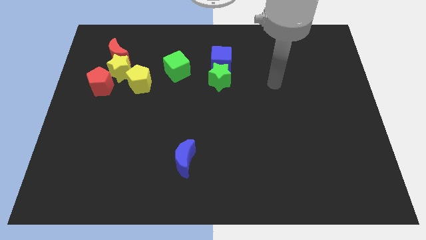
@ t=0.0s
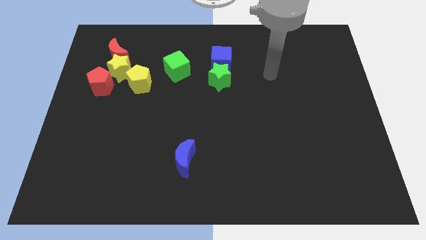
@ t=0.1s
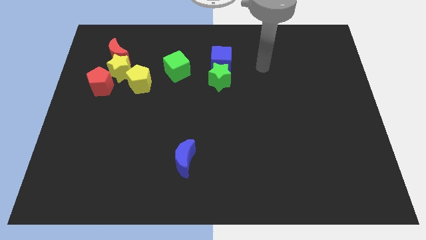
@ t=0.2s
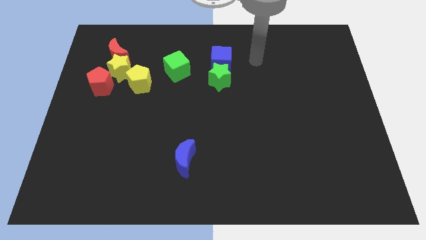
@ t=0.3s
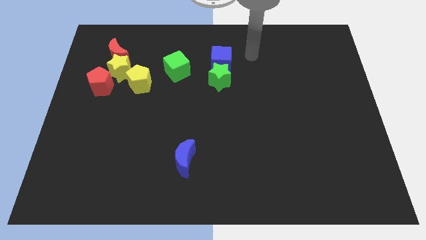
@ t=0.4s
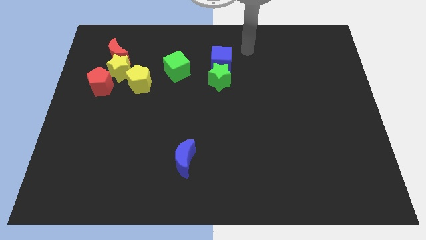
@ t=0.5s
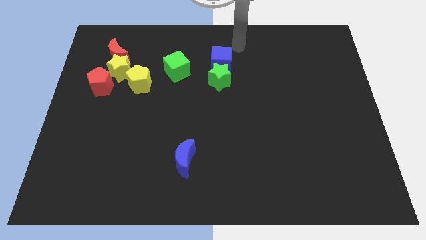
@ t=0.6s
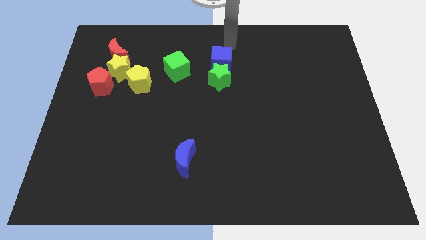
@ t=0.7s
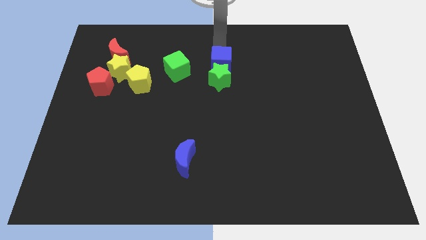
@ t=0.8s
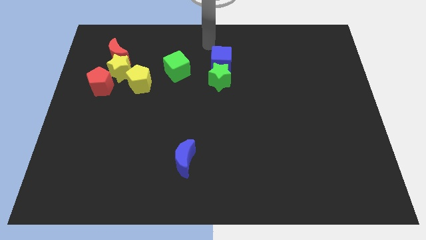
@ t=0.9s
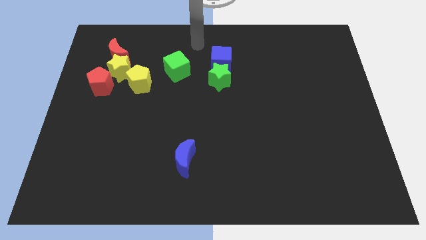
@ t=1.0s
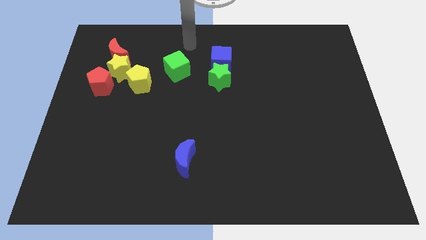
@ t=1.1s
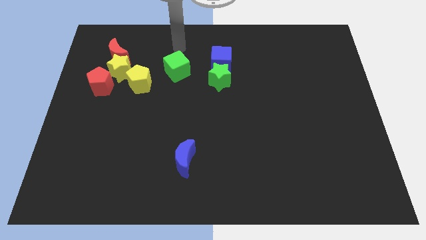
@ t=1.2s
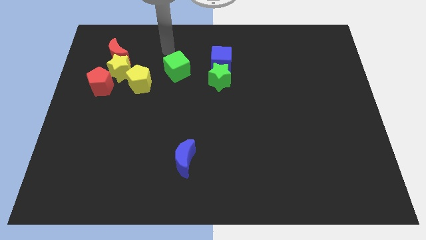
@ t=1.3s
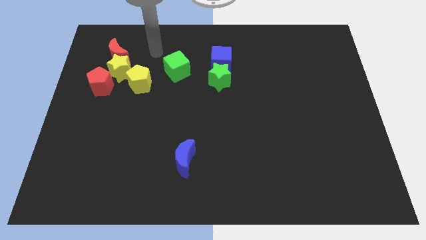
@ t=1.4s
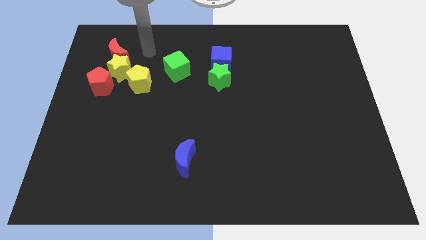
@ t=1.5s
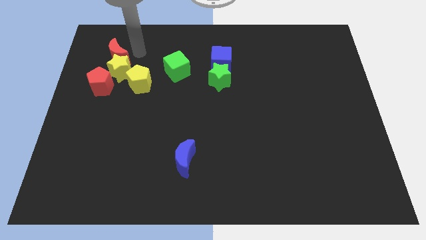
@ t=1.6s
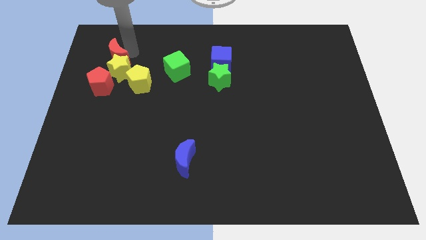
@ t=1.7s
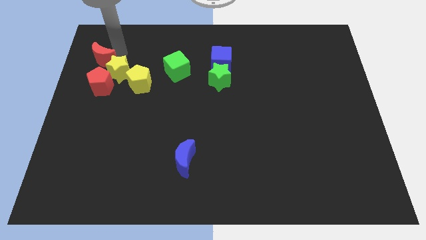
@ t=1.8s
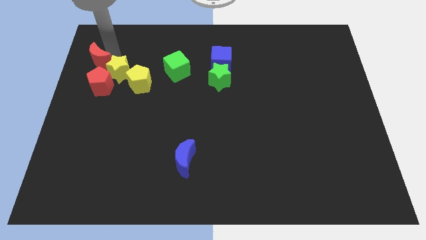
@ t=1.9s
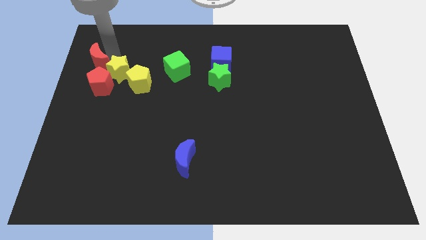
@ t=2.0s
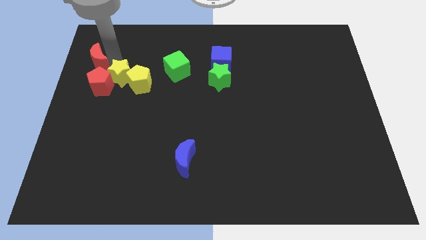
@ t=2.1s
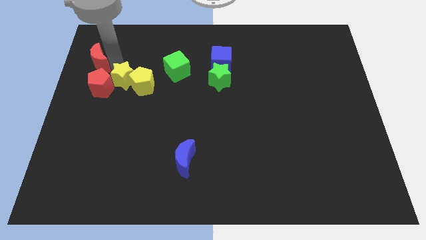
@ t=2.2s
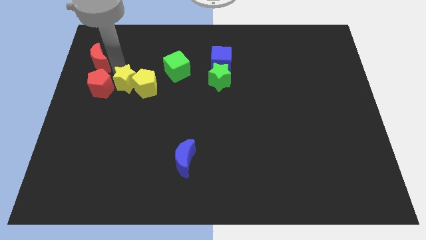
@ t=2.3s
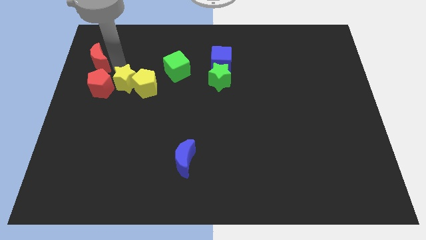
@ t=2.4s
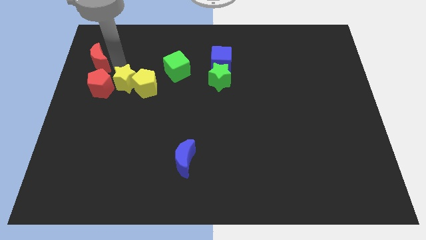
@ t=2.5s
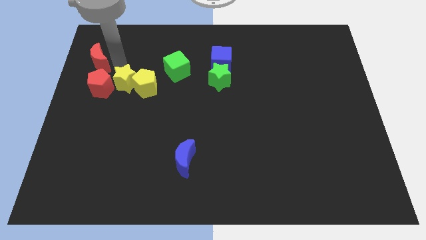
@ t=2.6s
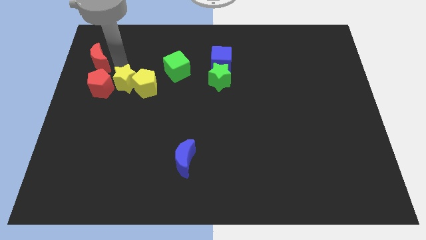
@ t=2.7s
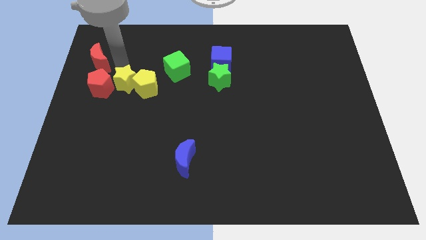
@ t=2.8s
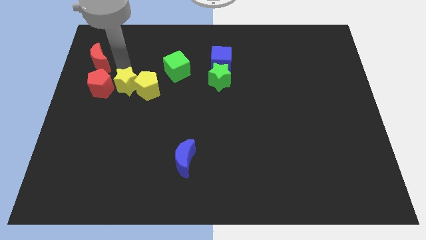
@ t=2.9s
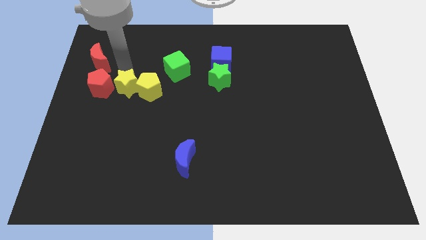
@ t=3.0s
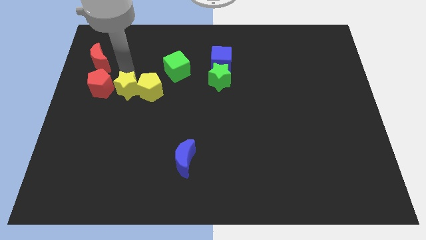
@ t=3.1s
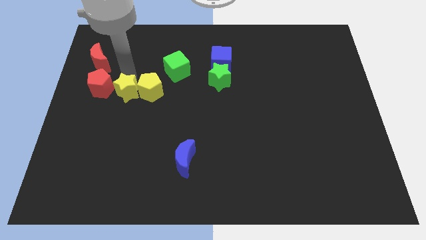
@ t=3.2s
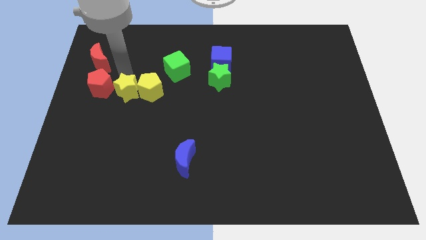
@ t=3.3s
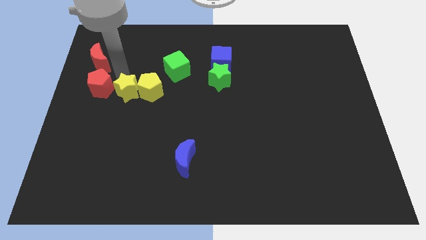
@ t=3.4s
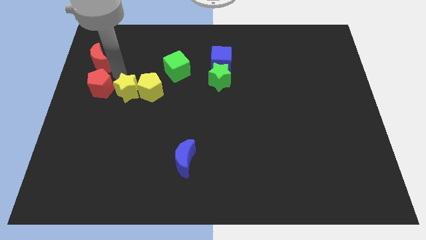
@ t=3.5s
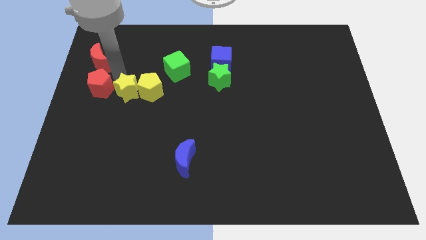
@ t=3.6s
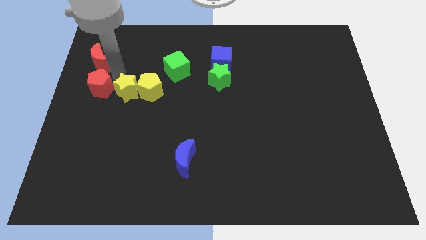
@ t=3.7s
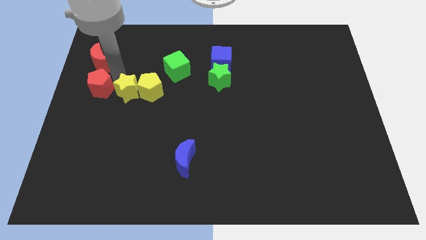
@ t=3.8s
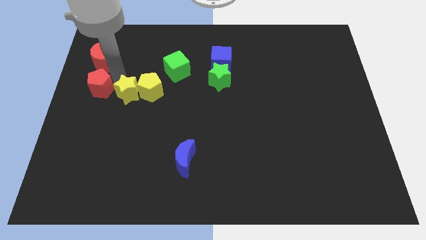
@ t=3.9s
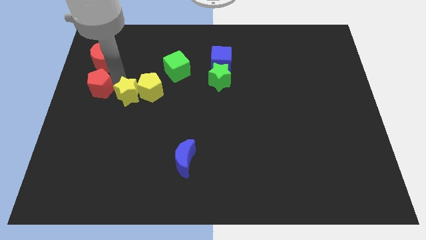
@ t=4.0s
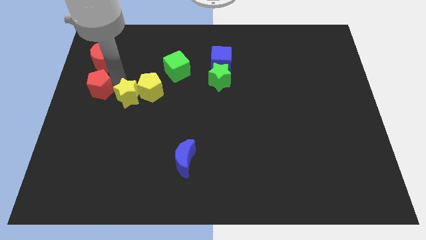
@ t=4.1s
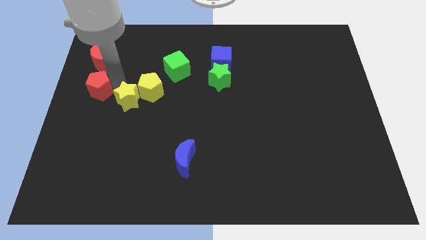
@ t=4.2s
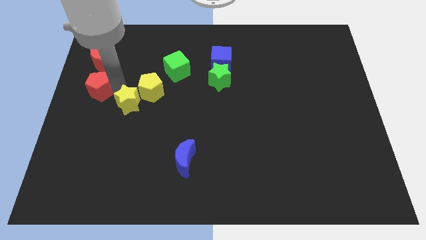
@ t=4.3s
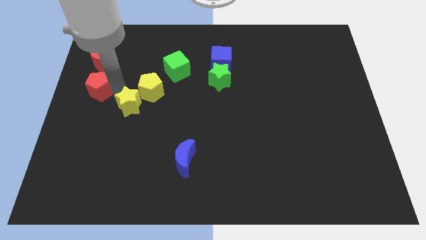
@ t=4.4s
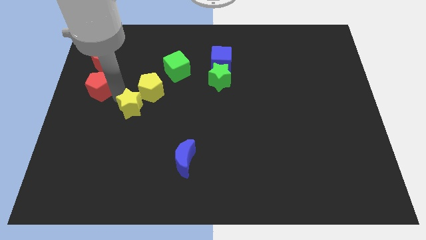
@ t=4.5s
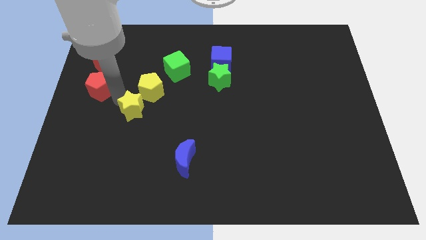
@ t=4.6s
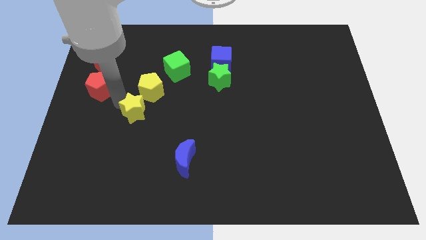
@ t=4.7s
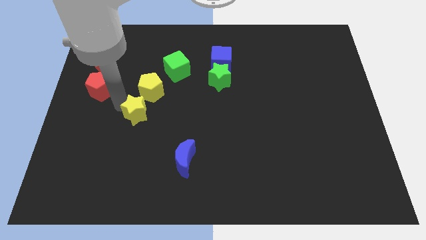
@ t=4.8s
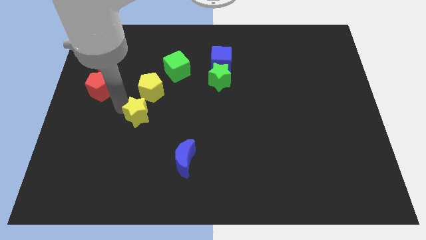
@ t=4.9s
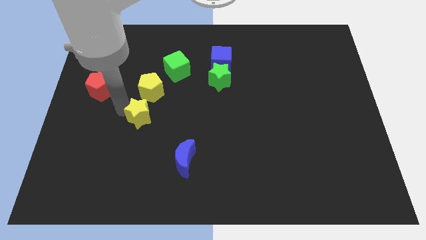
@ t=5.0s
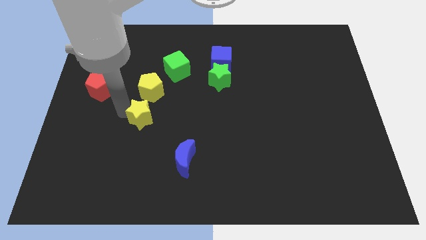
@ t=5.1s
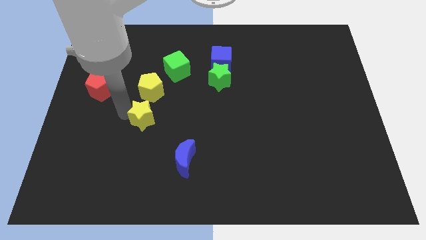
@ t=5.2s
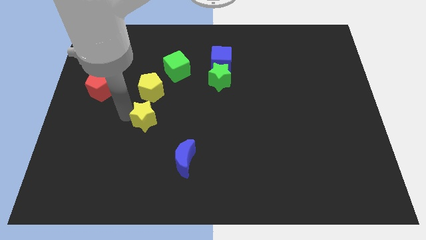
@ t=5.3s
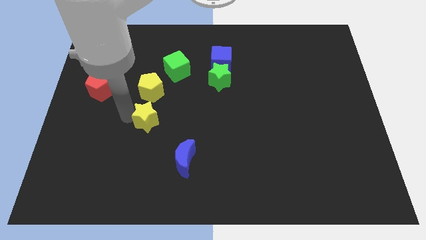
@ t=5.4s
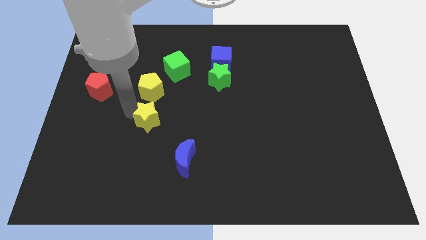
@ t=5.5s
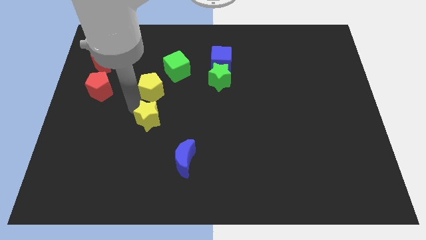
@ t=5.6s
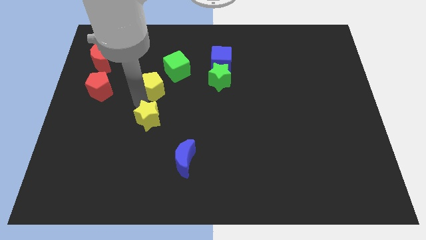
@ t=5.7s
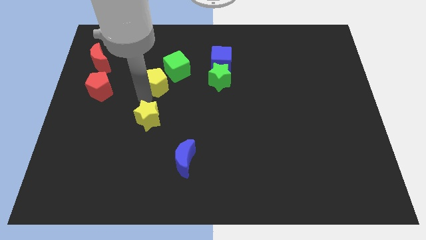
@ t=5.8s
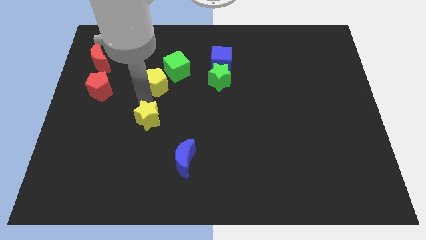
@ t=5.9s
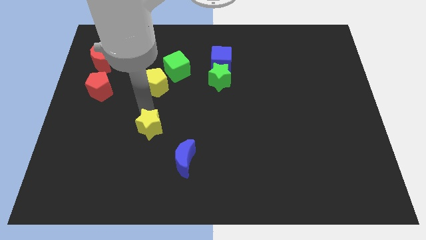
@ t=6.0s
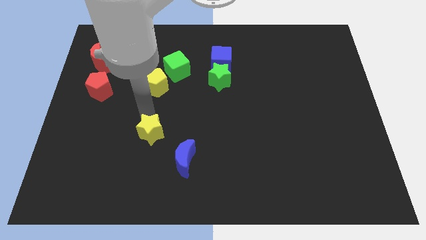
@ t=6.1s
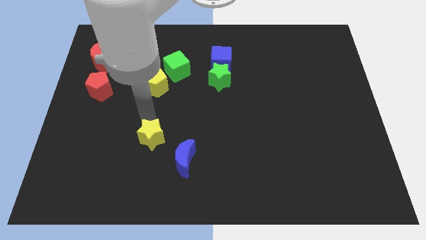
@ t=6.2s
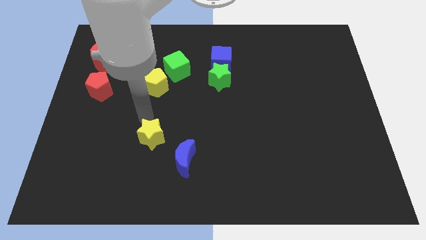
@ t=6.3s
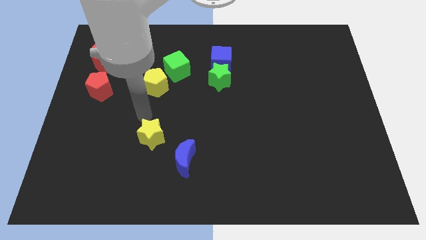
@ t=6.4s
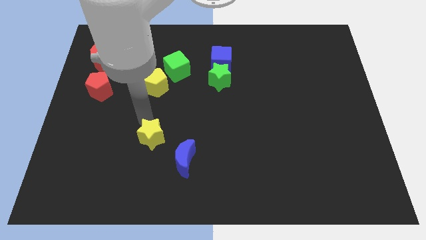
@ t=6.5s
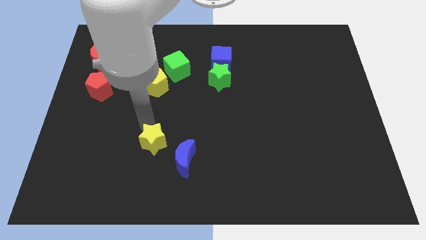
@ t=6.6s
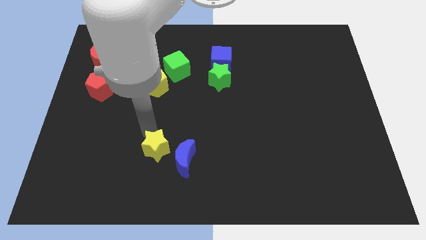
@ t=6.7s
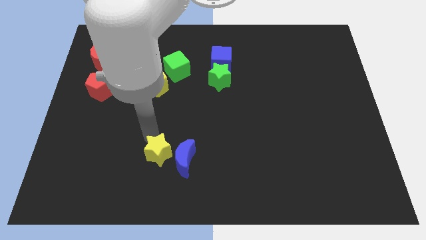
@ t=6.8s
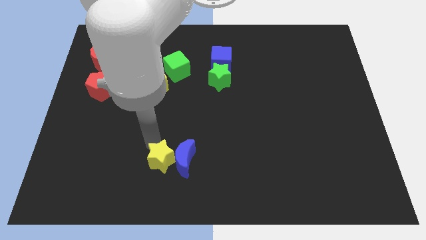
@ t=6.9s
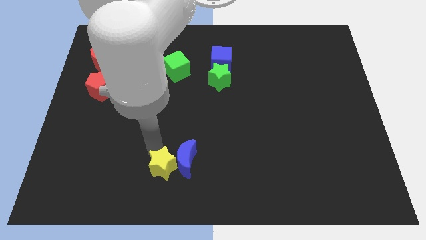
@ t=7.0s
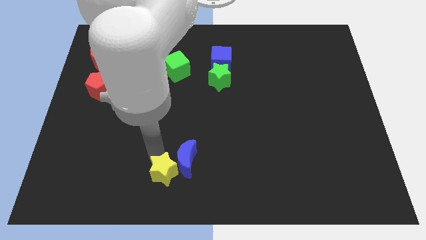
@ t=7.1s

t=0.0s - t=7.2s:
put the yellow star to the bottom
